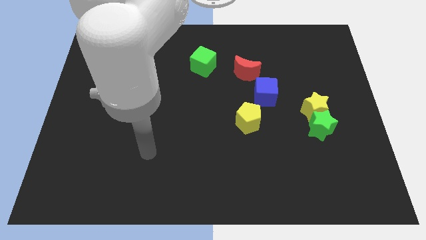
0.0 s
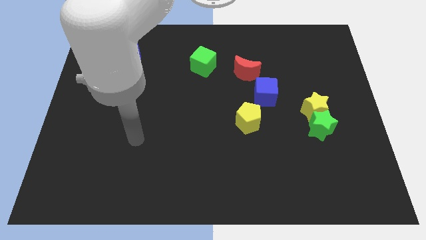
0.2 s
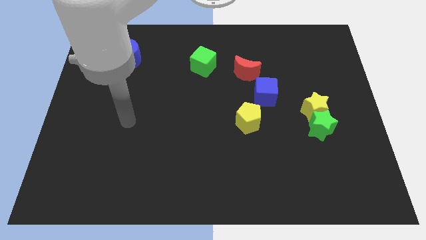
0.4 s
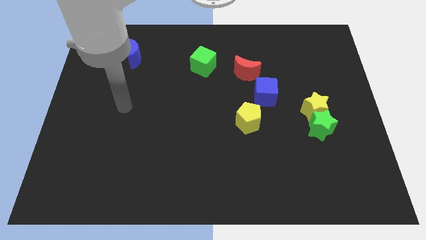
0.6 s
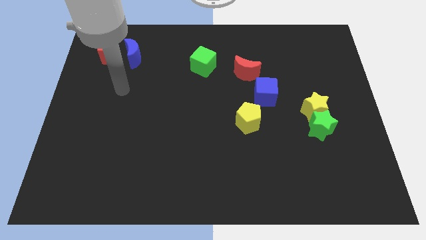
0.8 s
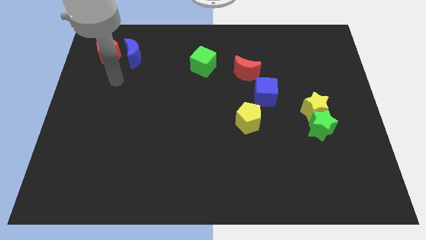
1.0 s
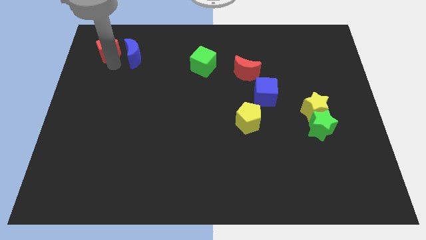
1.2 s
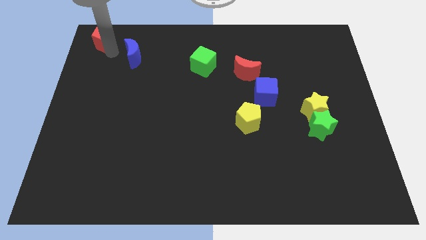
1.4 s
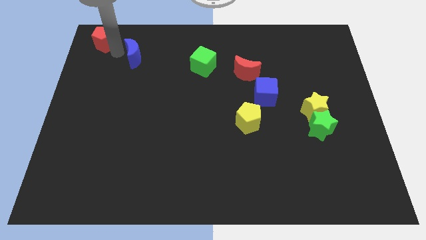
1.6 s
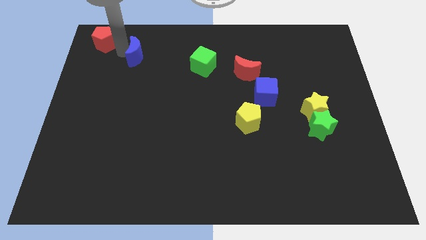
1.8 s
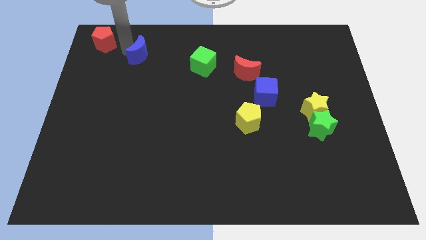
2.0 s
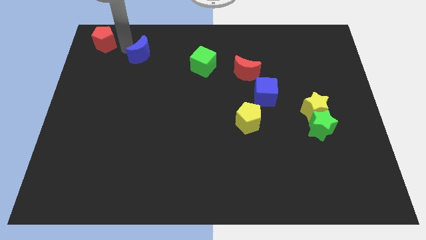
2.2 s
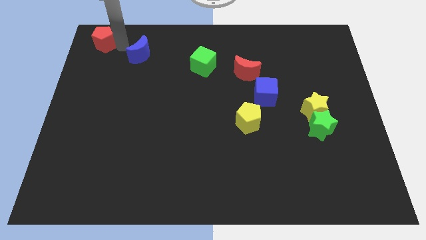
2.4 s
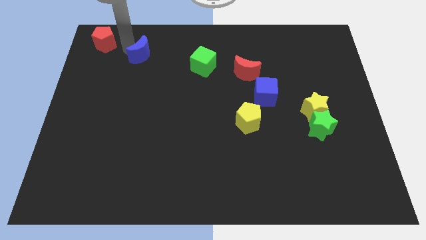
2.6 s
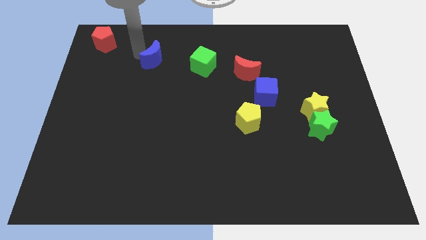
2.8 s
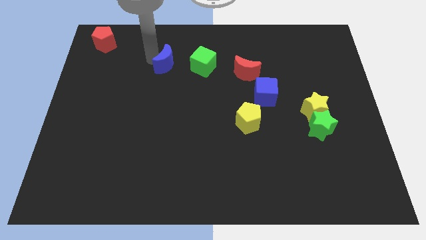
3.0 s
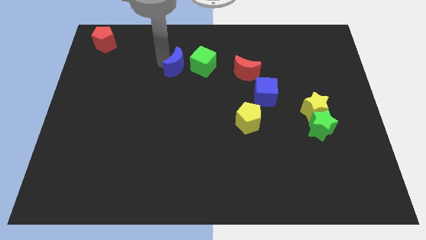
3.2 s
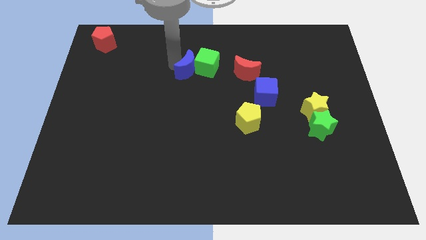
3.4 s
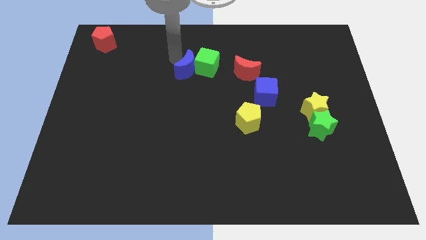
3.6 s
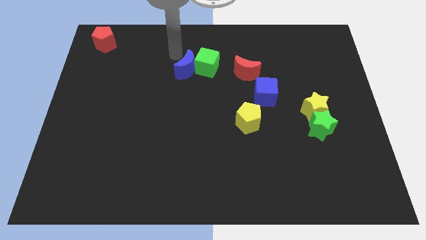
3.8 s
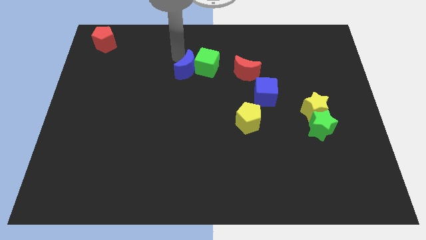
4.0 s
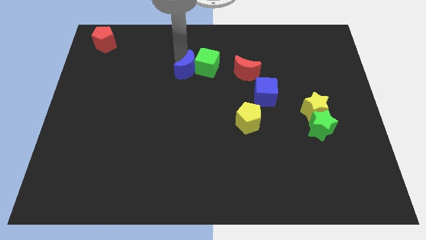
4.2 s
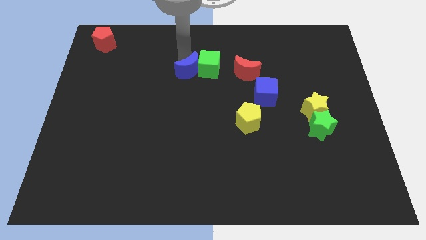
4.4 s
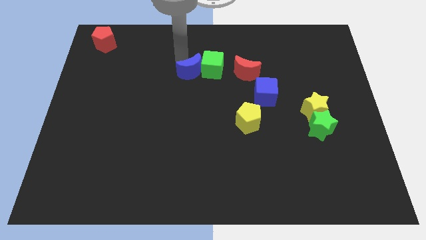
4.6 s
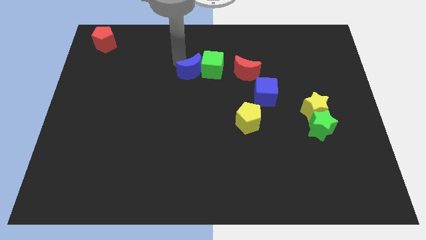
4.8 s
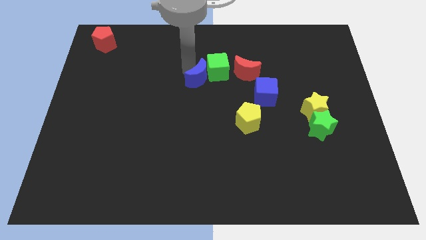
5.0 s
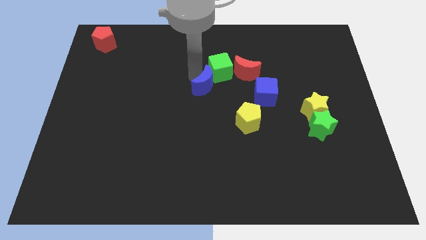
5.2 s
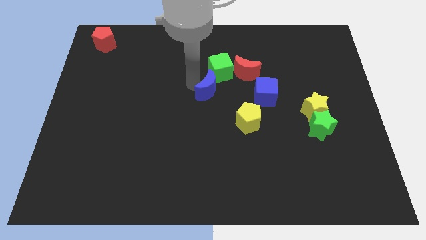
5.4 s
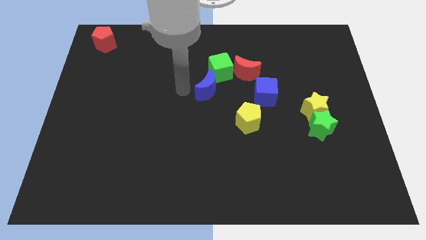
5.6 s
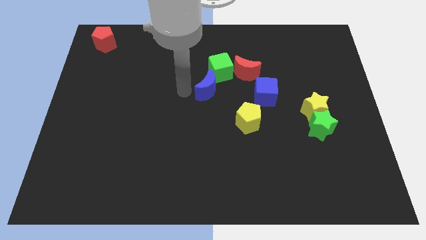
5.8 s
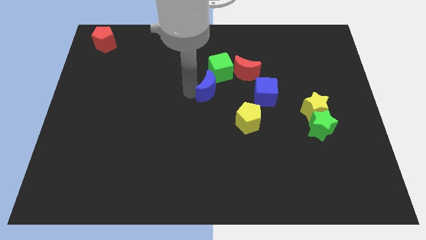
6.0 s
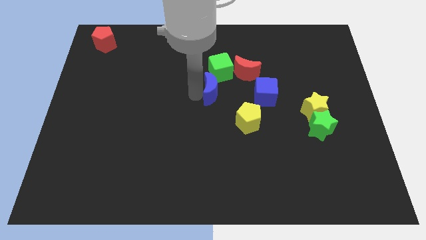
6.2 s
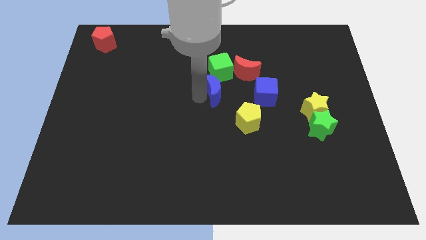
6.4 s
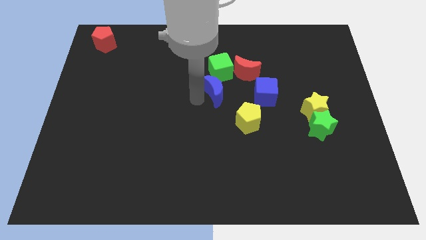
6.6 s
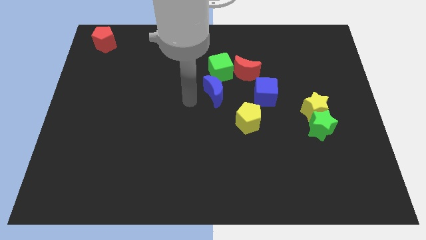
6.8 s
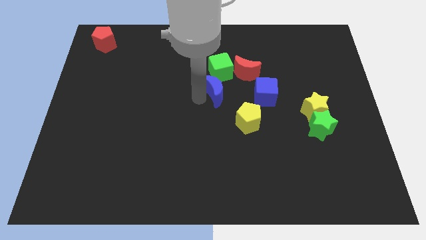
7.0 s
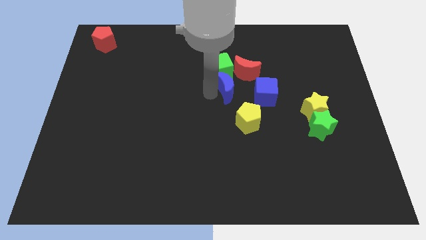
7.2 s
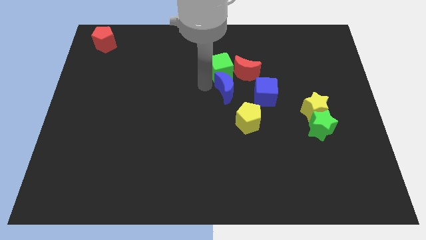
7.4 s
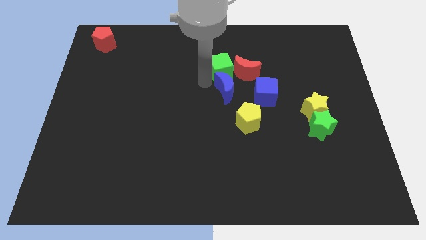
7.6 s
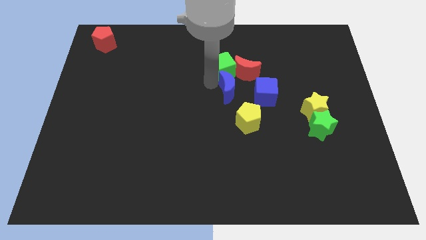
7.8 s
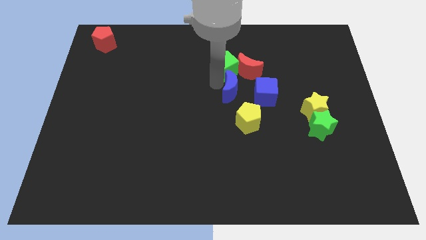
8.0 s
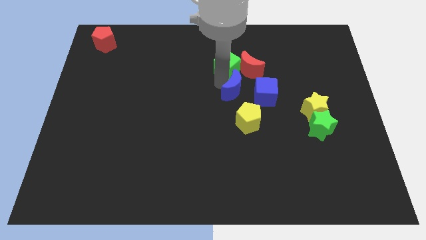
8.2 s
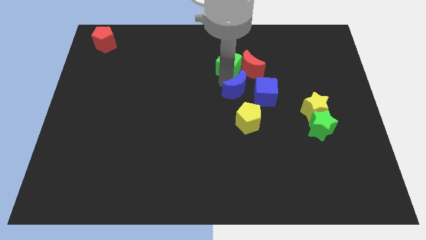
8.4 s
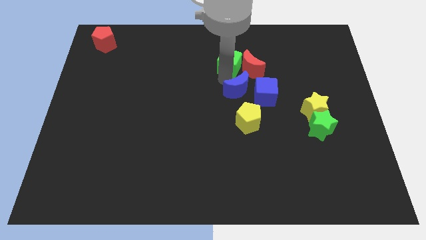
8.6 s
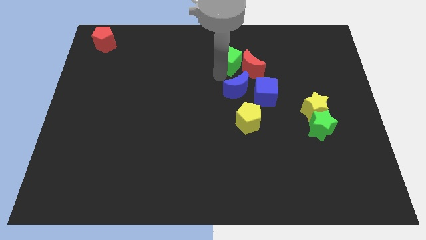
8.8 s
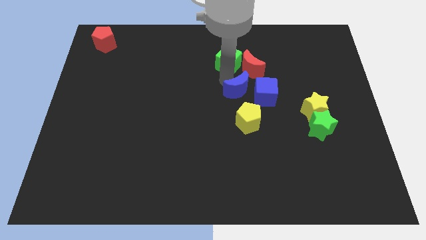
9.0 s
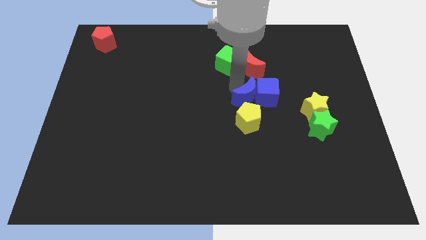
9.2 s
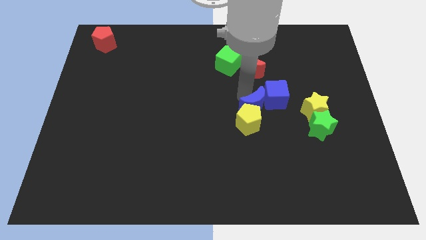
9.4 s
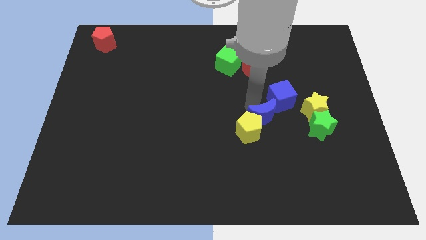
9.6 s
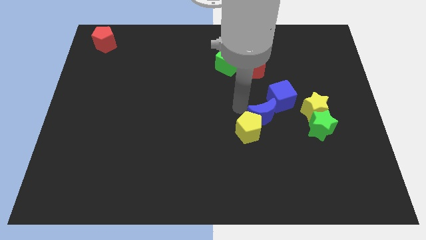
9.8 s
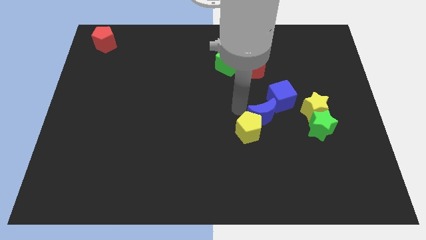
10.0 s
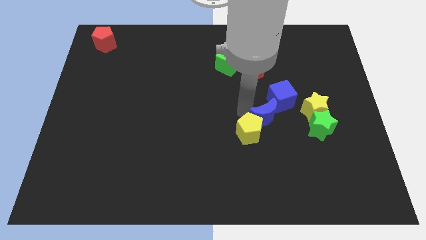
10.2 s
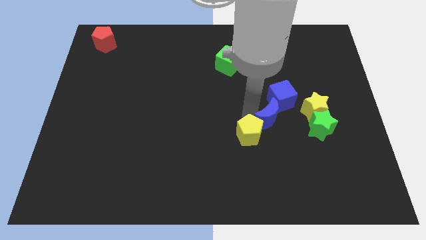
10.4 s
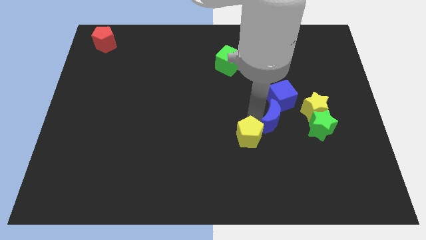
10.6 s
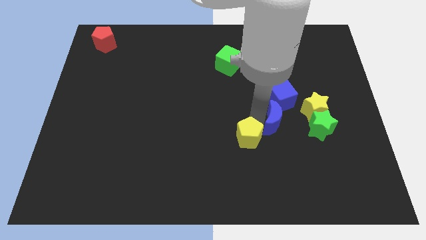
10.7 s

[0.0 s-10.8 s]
move the blue moon to the bottom left side of the yellow star

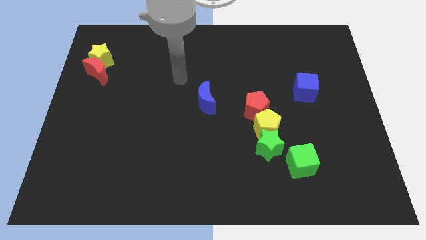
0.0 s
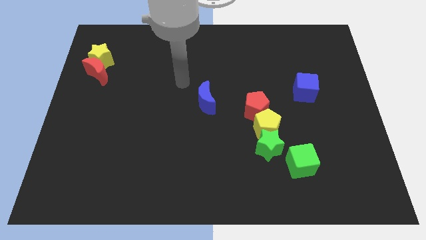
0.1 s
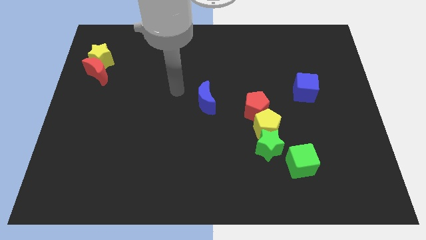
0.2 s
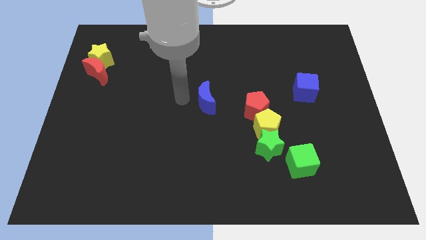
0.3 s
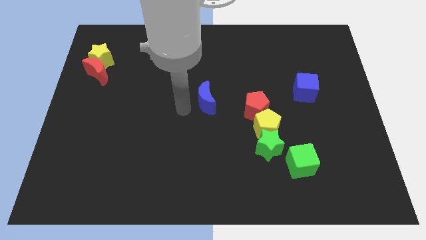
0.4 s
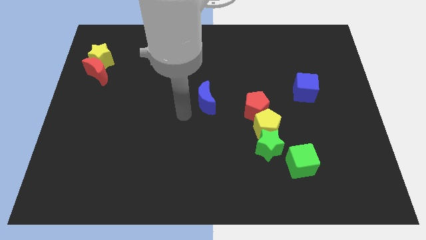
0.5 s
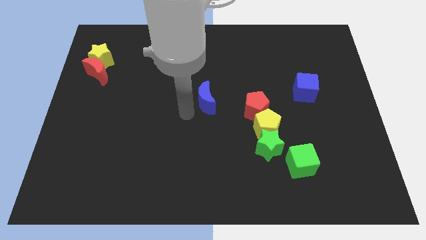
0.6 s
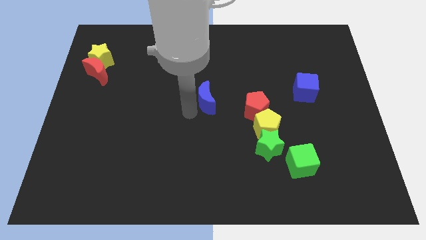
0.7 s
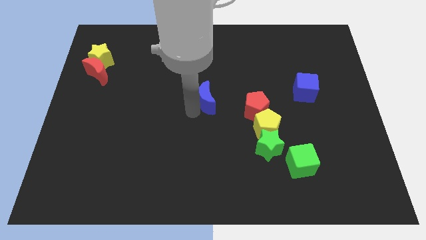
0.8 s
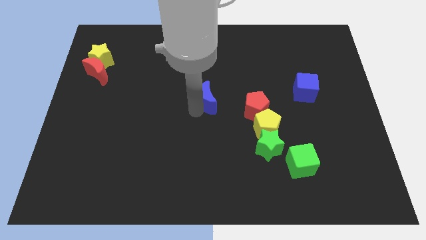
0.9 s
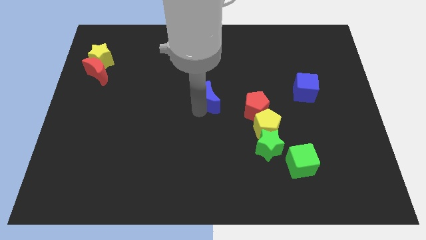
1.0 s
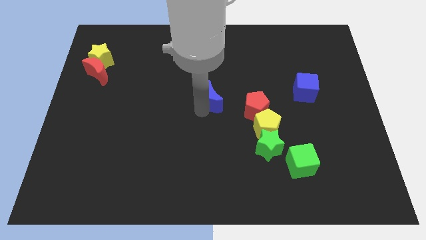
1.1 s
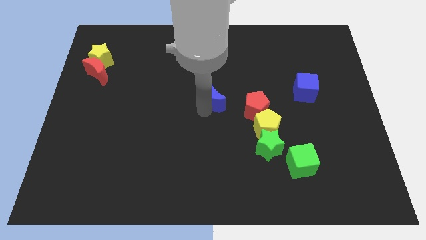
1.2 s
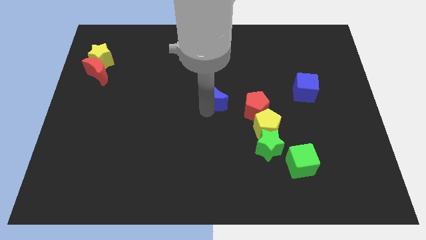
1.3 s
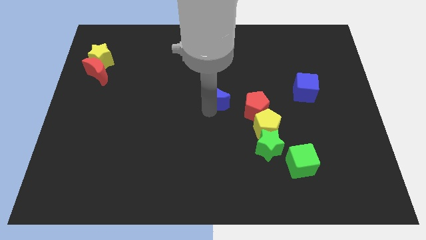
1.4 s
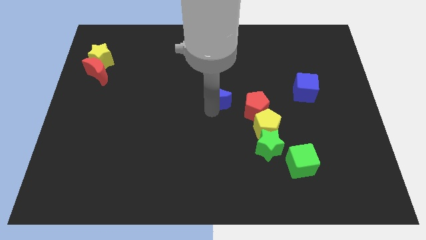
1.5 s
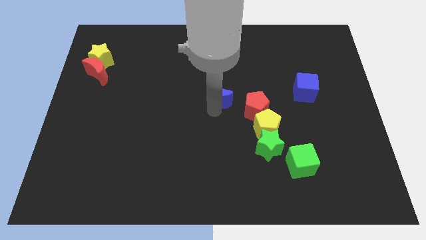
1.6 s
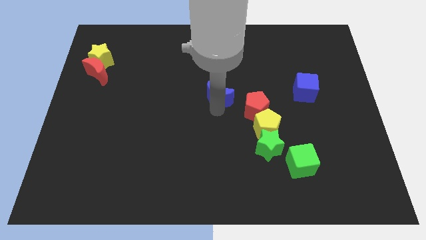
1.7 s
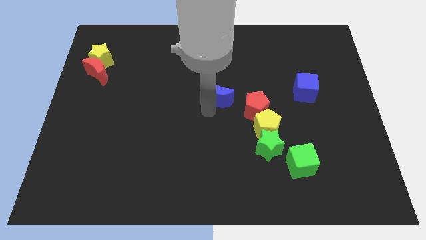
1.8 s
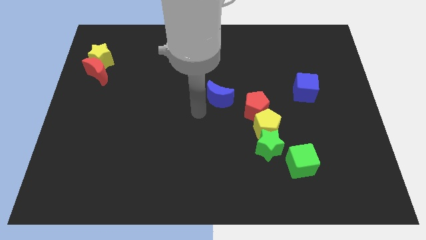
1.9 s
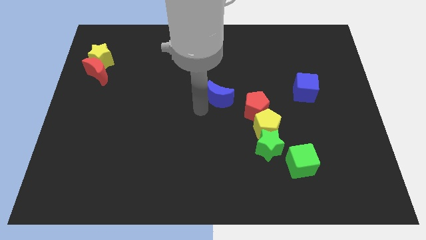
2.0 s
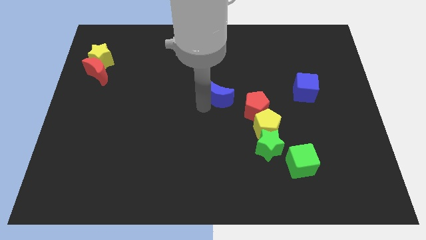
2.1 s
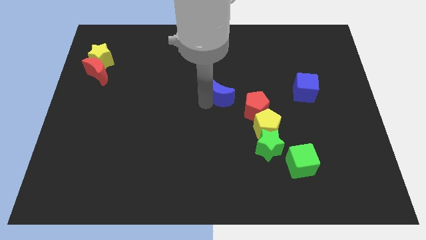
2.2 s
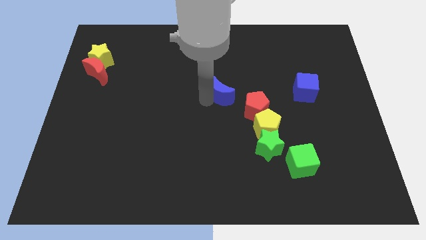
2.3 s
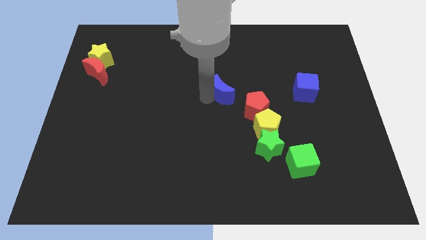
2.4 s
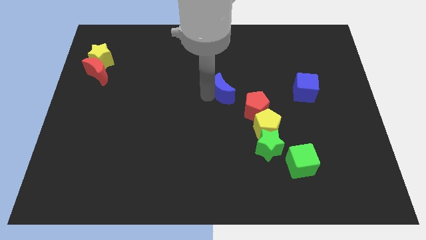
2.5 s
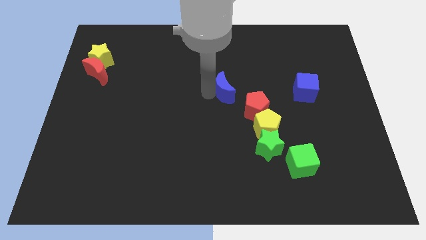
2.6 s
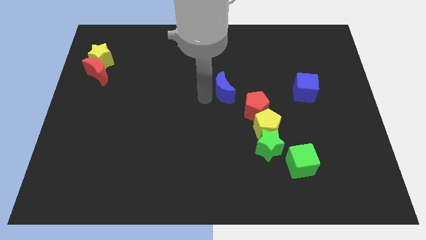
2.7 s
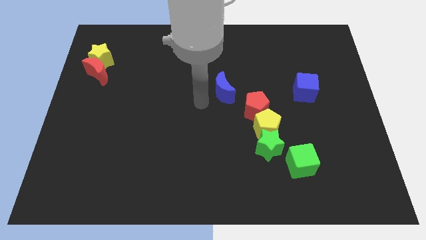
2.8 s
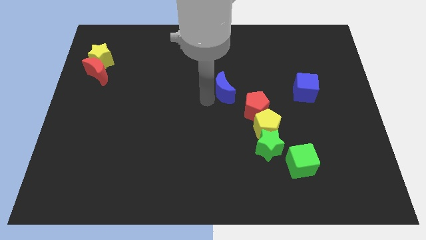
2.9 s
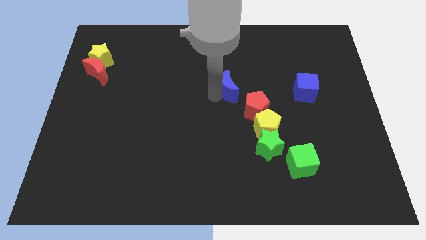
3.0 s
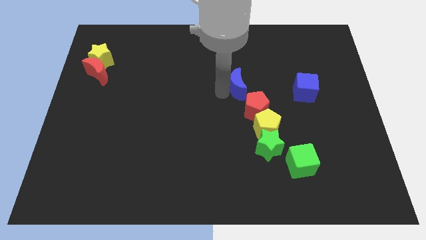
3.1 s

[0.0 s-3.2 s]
slide the blue moon to the top side of the red pentagon
